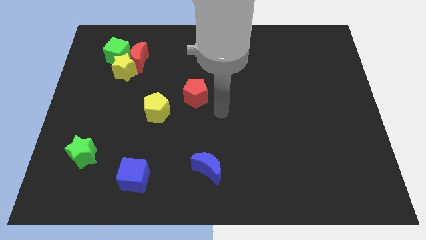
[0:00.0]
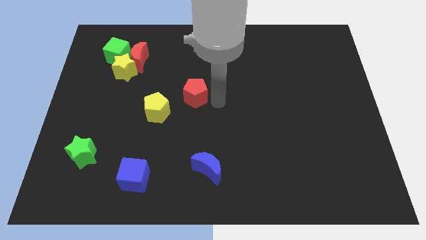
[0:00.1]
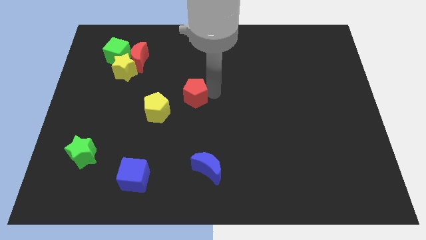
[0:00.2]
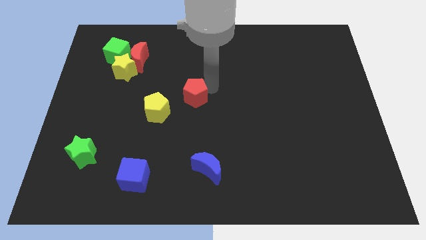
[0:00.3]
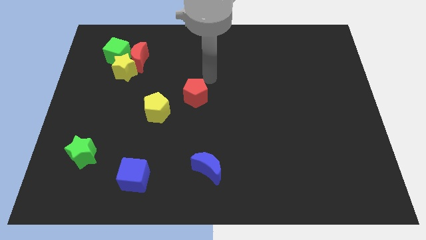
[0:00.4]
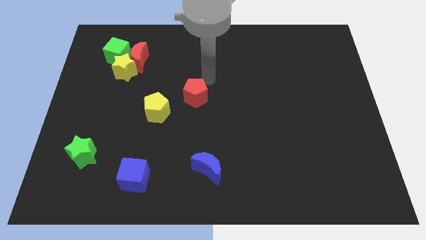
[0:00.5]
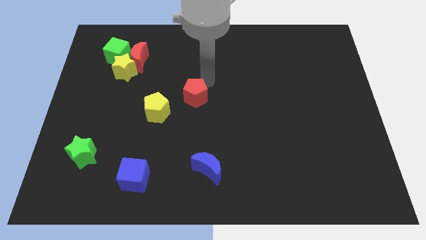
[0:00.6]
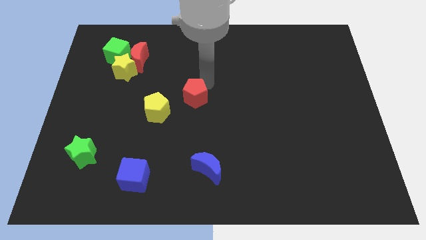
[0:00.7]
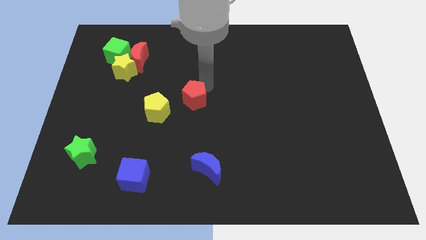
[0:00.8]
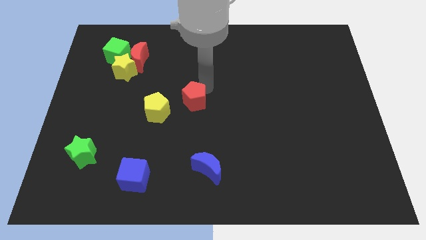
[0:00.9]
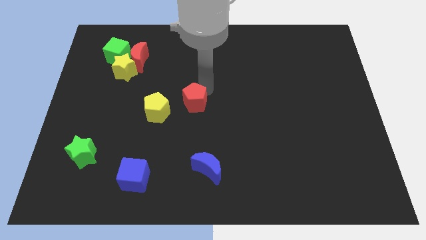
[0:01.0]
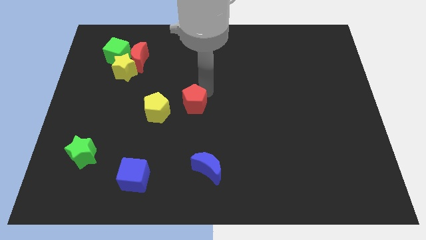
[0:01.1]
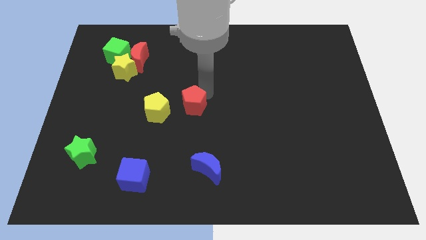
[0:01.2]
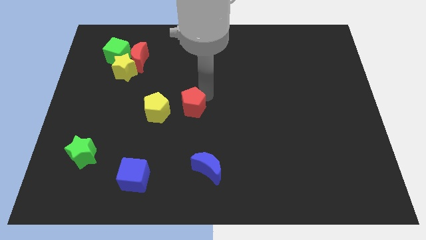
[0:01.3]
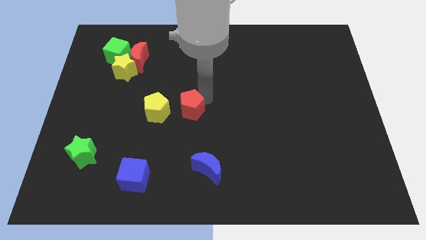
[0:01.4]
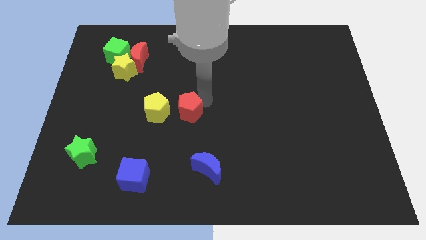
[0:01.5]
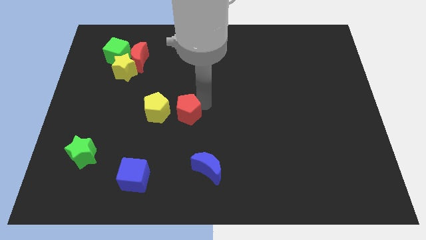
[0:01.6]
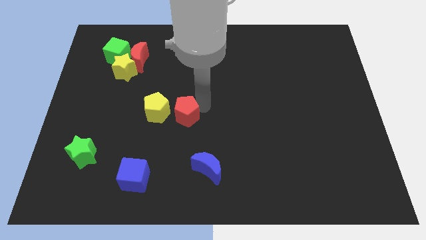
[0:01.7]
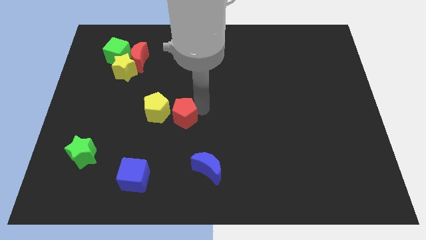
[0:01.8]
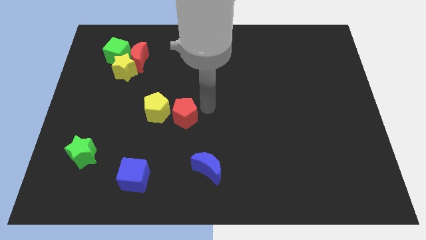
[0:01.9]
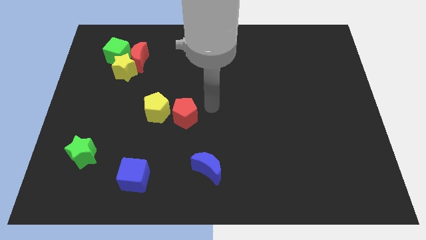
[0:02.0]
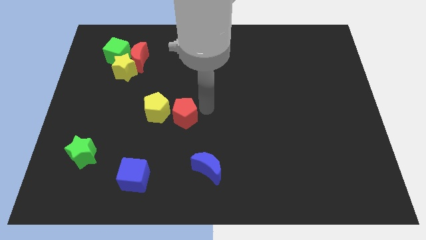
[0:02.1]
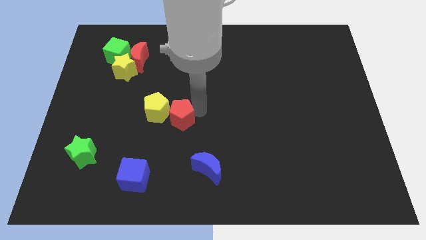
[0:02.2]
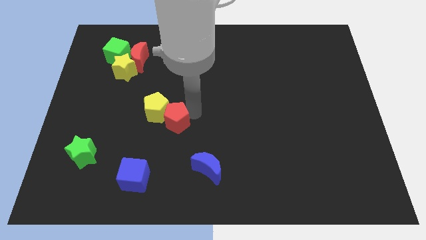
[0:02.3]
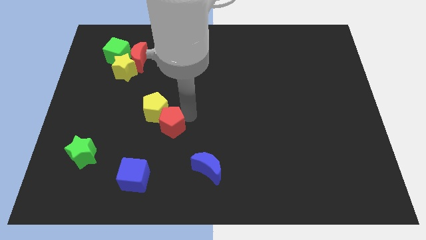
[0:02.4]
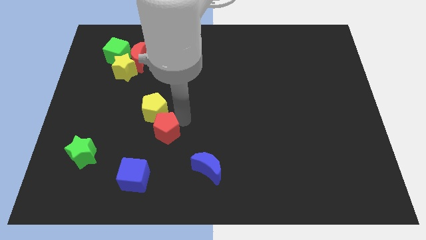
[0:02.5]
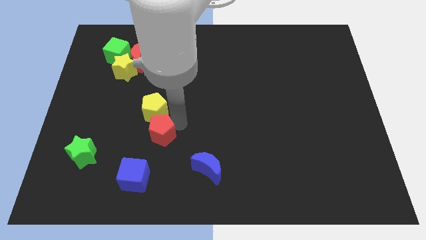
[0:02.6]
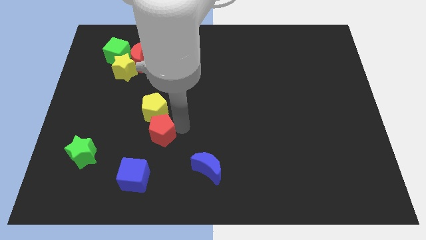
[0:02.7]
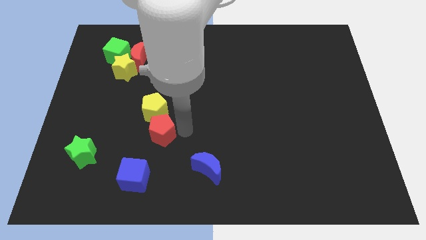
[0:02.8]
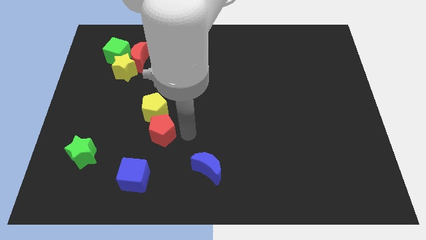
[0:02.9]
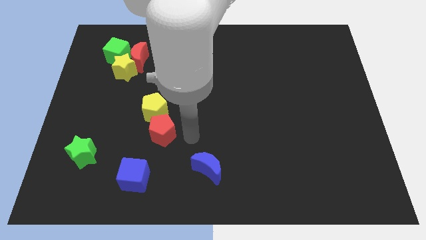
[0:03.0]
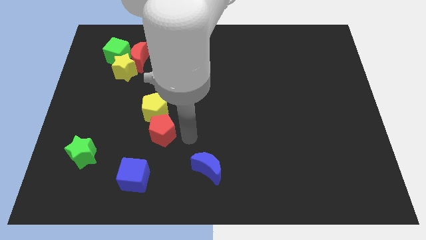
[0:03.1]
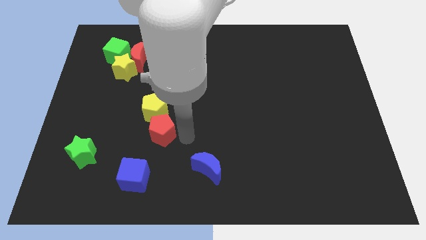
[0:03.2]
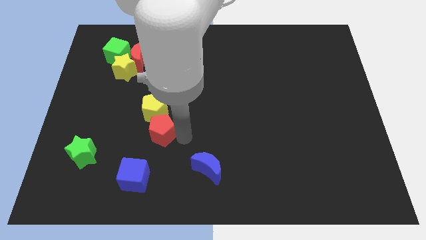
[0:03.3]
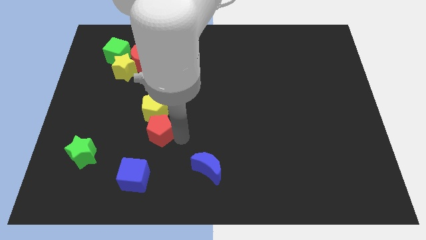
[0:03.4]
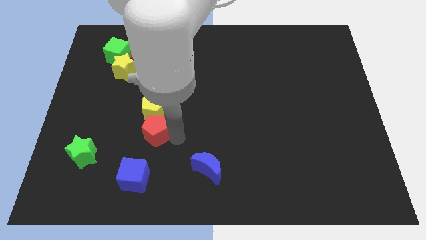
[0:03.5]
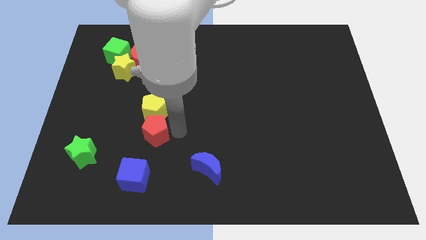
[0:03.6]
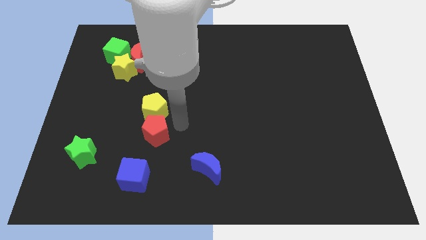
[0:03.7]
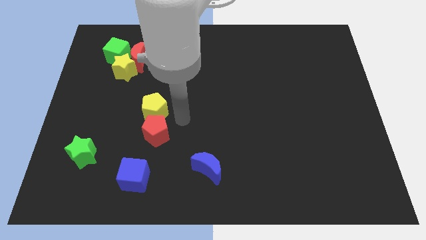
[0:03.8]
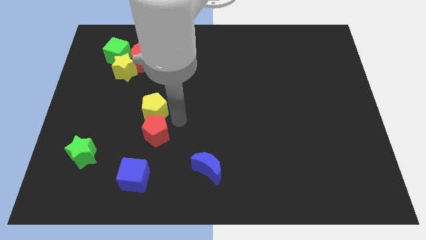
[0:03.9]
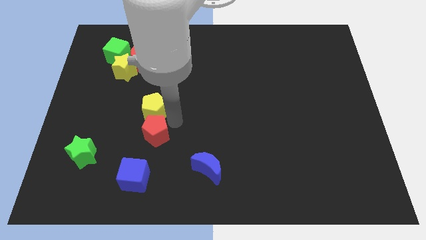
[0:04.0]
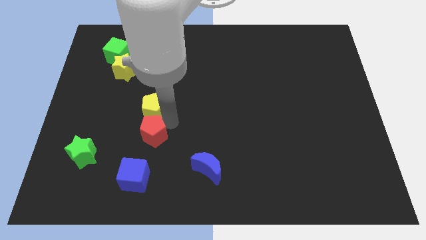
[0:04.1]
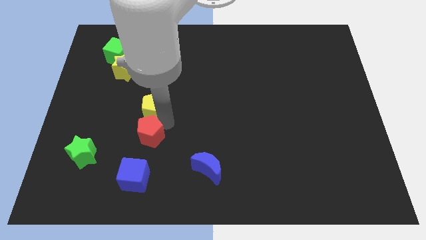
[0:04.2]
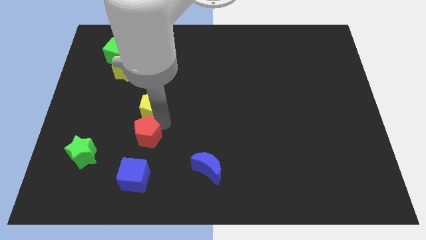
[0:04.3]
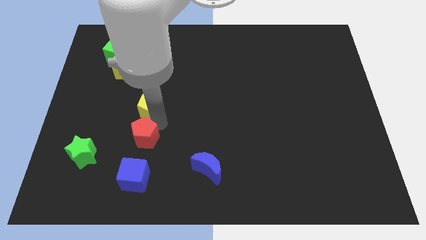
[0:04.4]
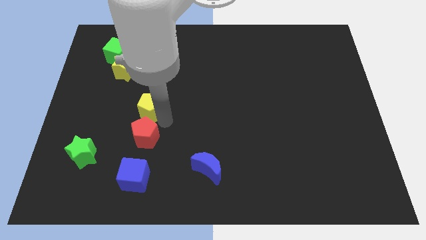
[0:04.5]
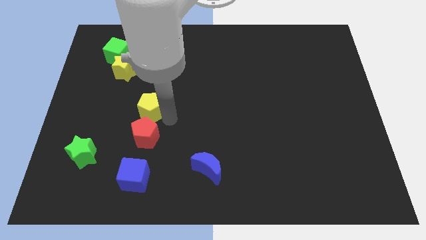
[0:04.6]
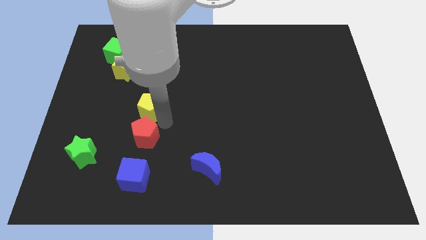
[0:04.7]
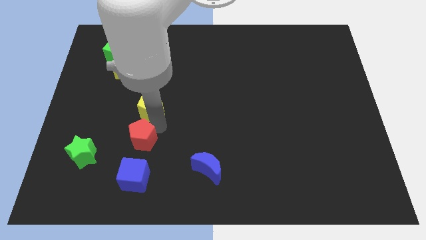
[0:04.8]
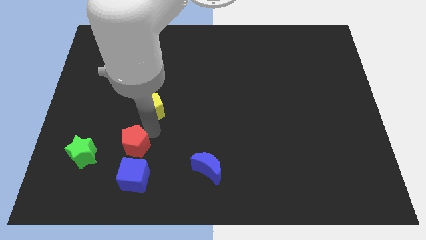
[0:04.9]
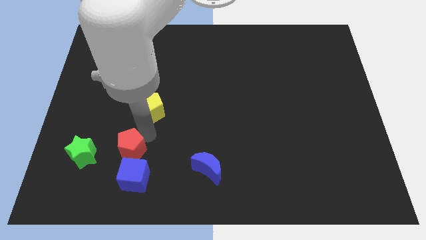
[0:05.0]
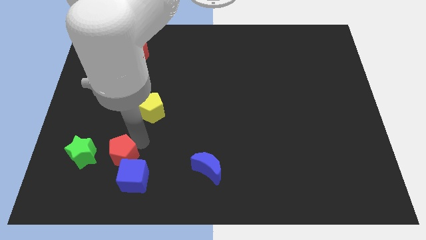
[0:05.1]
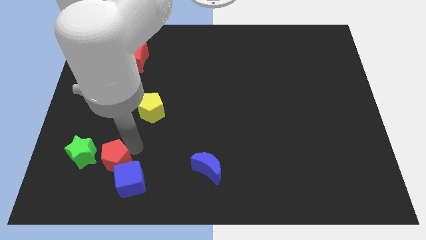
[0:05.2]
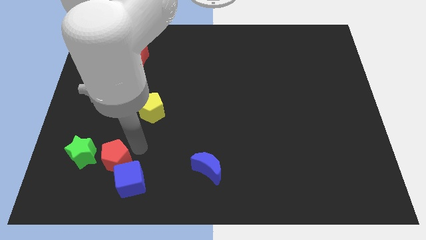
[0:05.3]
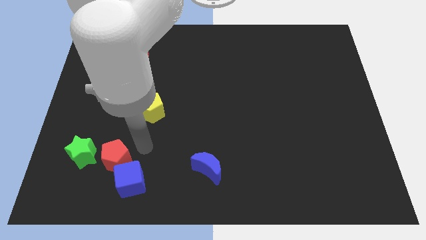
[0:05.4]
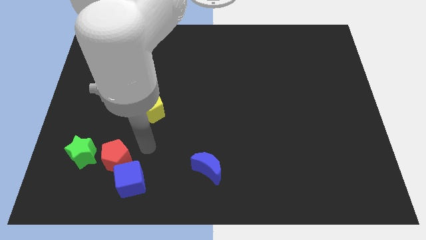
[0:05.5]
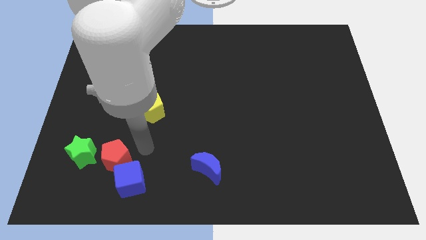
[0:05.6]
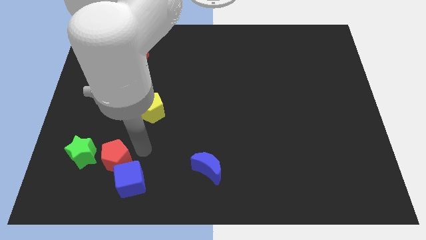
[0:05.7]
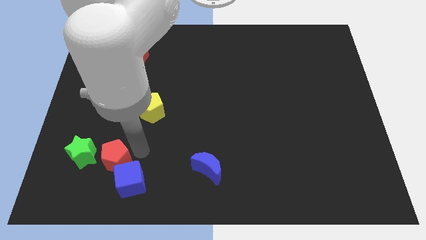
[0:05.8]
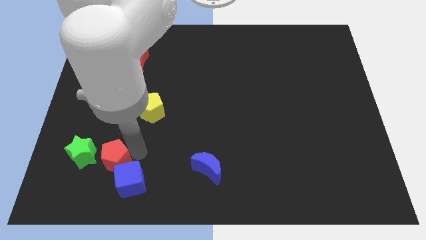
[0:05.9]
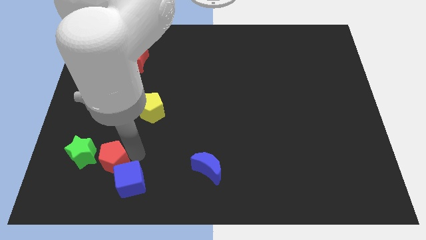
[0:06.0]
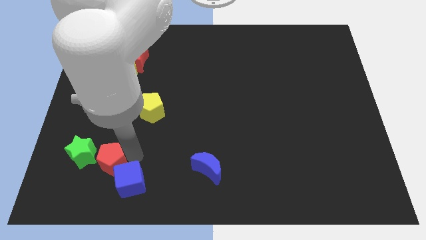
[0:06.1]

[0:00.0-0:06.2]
put the red pentagon to the left side of the blue cube
